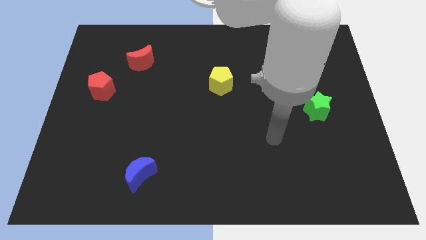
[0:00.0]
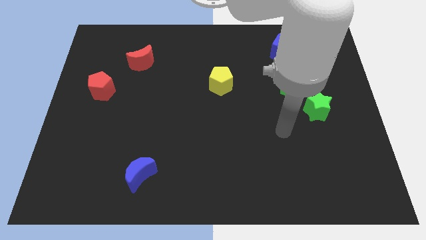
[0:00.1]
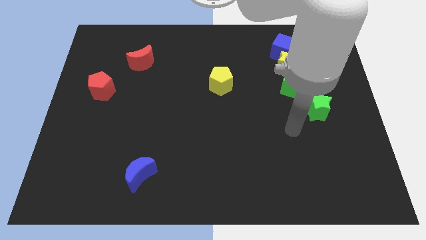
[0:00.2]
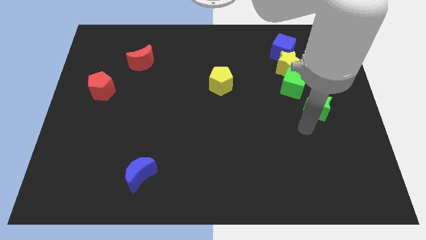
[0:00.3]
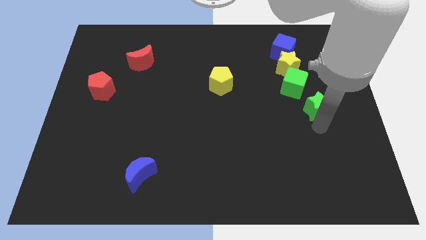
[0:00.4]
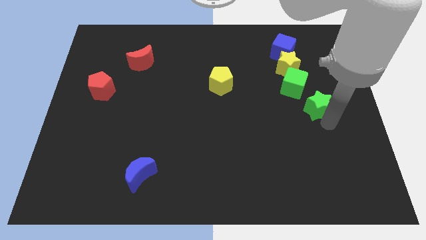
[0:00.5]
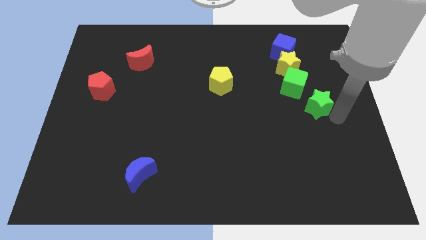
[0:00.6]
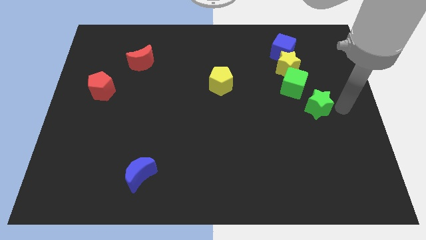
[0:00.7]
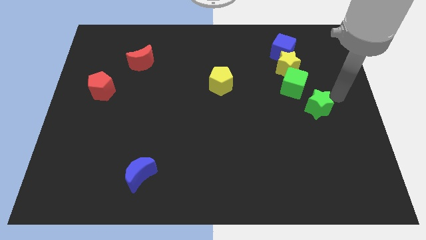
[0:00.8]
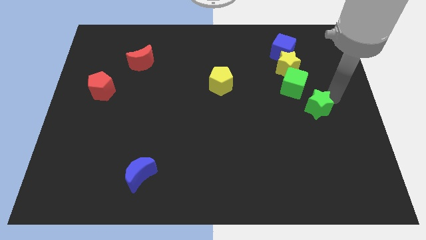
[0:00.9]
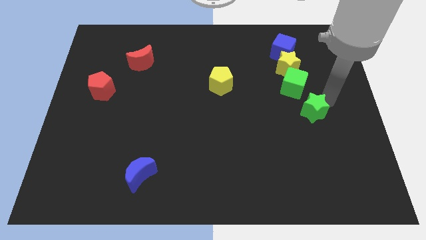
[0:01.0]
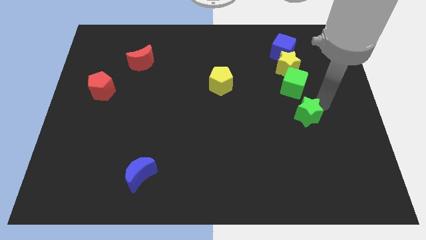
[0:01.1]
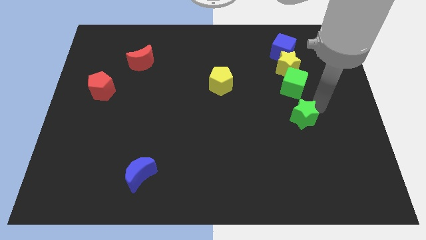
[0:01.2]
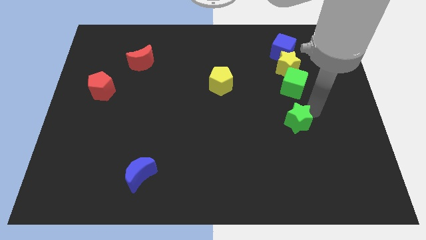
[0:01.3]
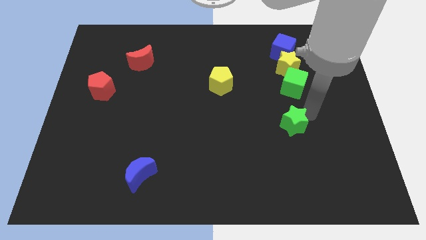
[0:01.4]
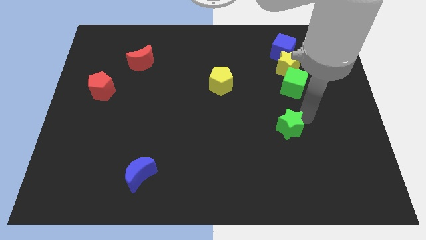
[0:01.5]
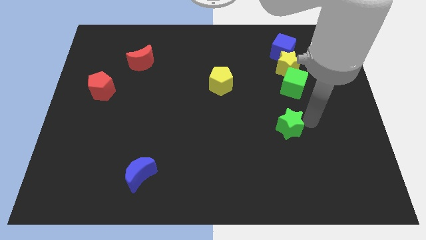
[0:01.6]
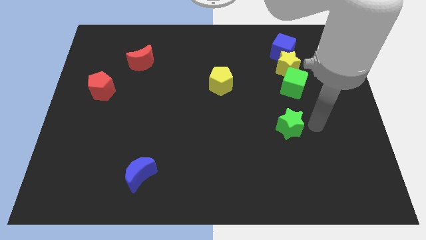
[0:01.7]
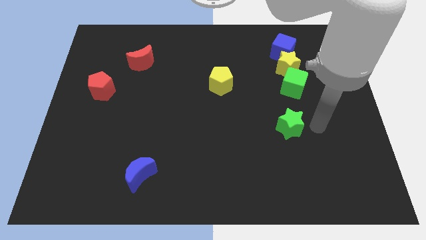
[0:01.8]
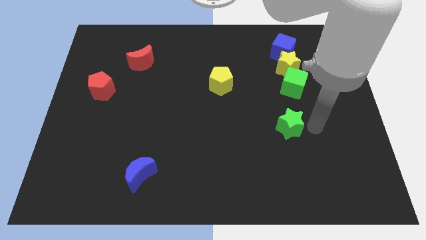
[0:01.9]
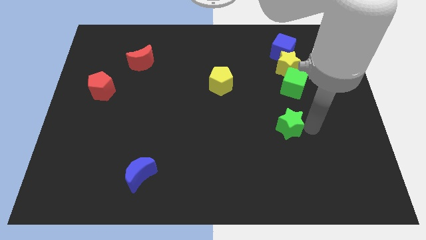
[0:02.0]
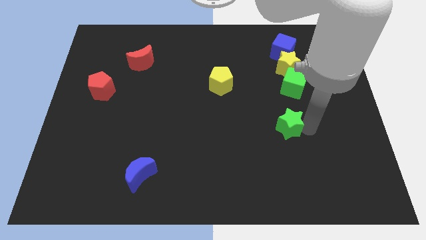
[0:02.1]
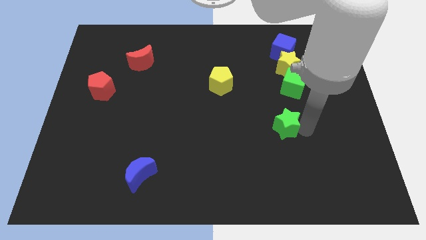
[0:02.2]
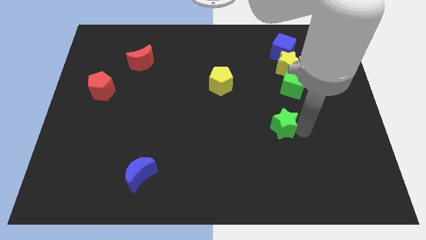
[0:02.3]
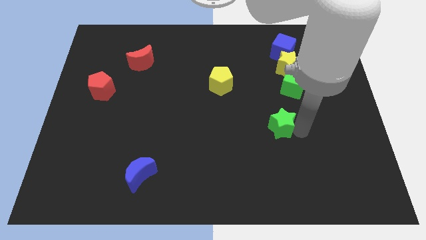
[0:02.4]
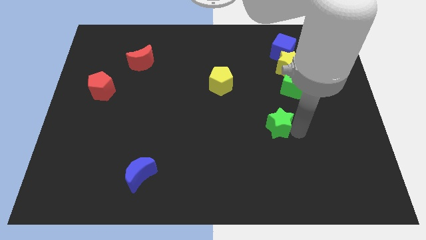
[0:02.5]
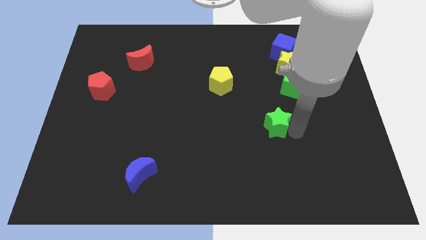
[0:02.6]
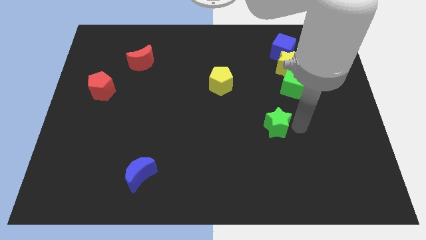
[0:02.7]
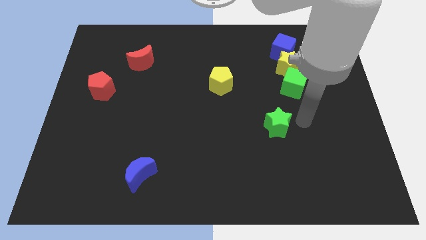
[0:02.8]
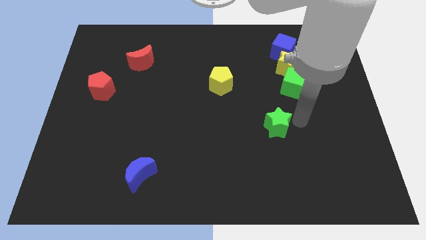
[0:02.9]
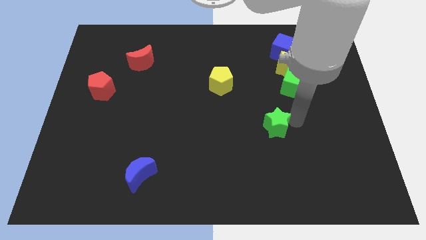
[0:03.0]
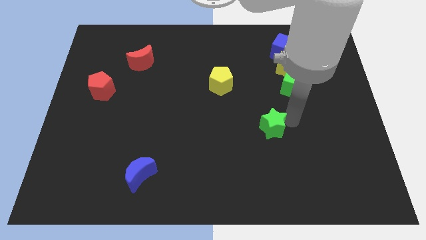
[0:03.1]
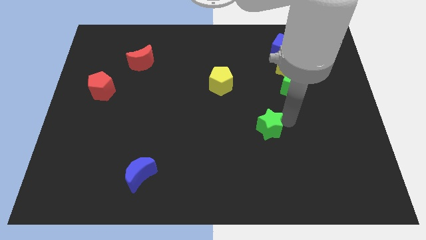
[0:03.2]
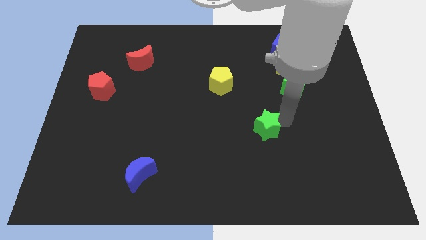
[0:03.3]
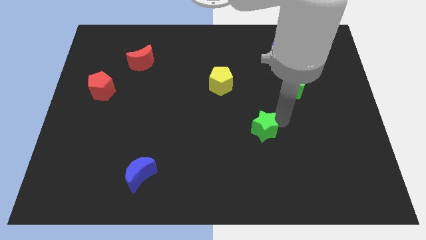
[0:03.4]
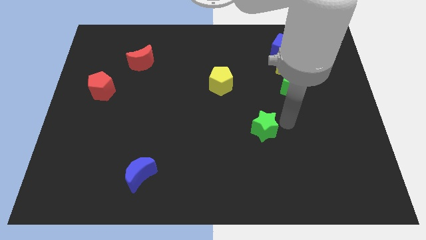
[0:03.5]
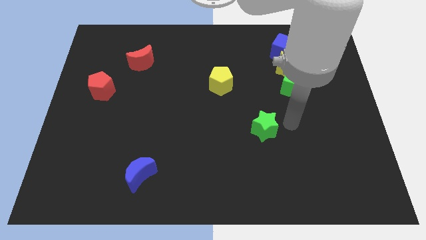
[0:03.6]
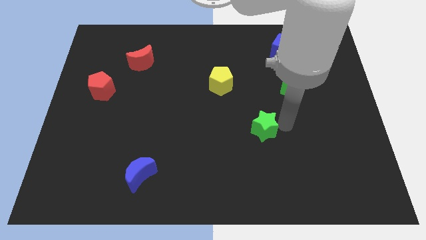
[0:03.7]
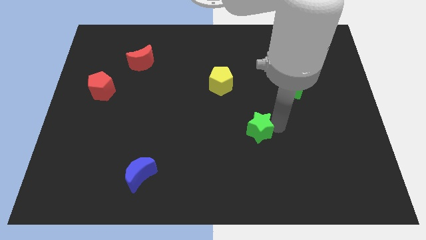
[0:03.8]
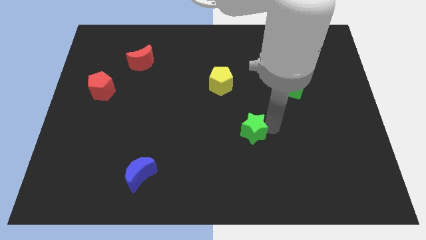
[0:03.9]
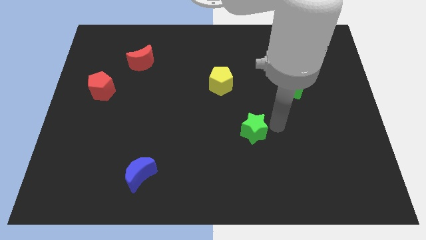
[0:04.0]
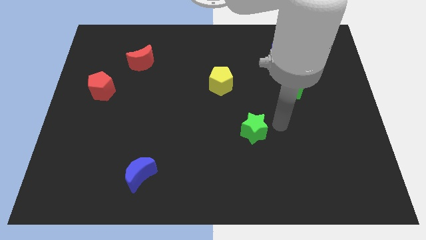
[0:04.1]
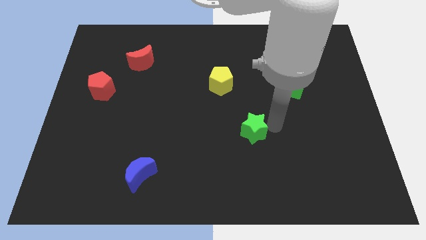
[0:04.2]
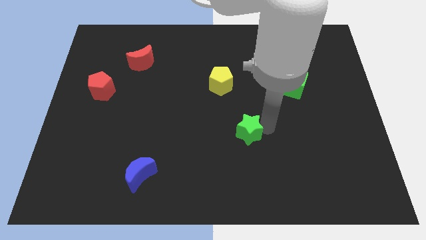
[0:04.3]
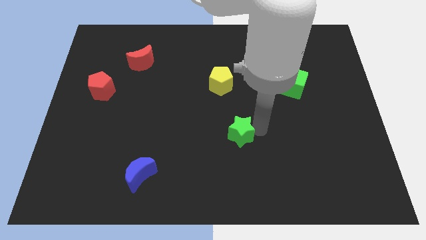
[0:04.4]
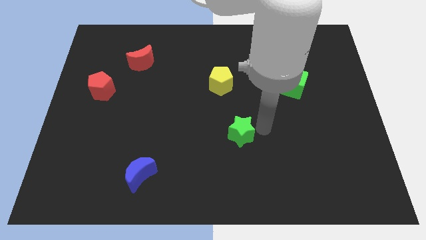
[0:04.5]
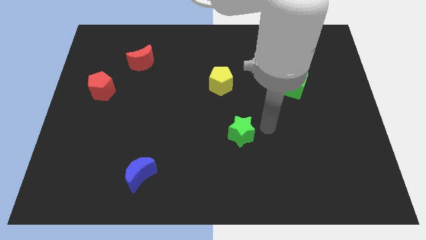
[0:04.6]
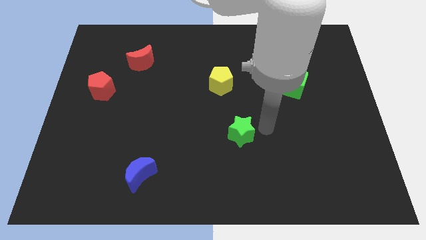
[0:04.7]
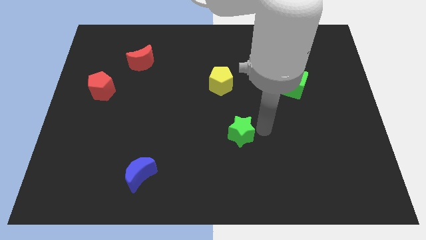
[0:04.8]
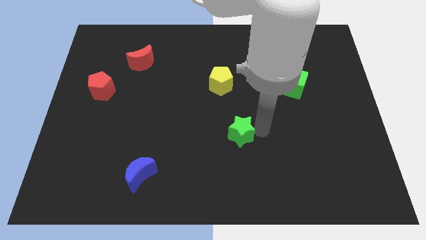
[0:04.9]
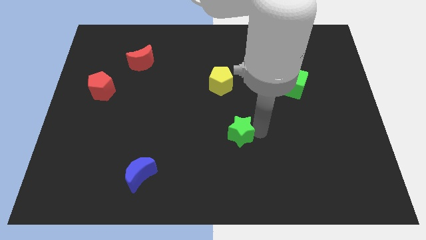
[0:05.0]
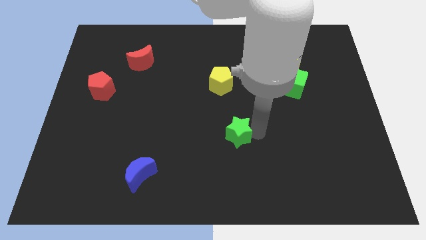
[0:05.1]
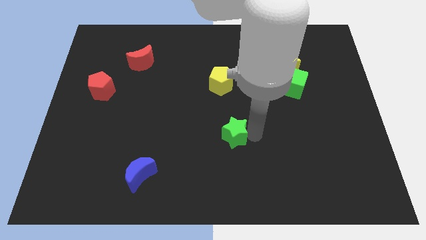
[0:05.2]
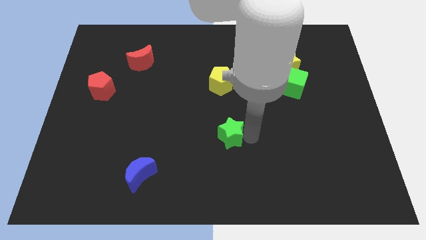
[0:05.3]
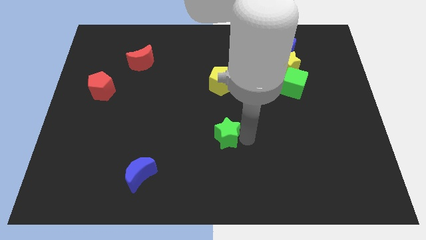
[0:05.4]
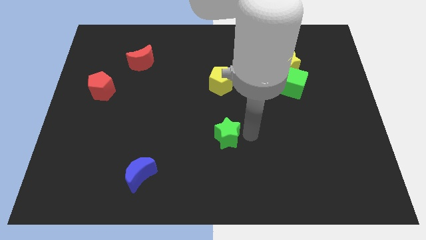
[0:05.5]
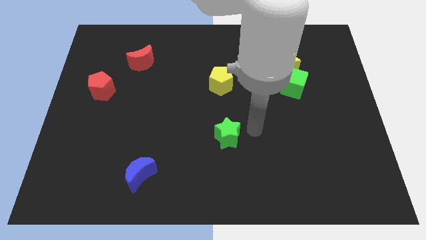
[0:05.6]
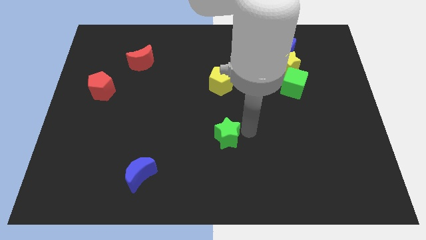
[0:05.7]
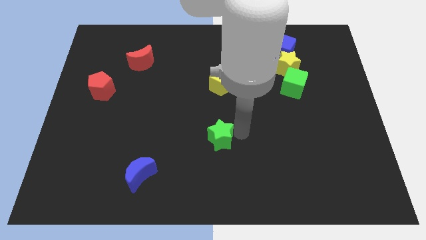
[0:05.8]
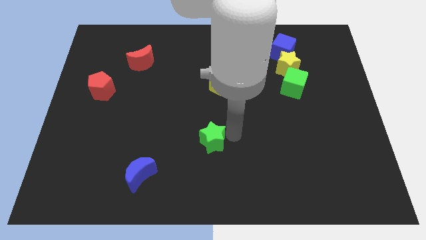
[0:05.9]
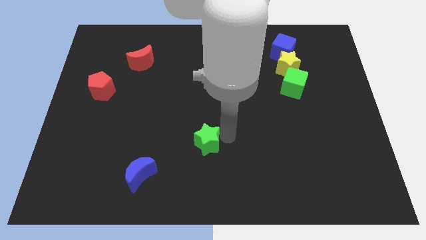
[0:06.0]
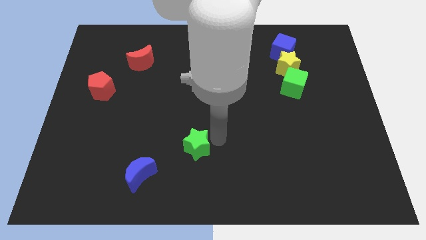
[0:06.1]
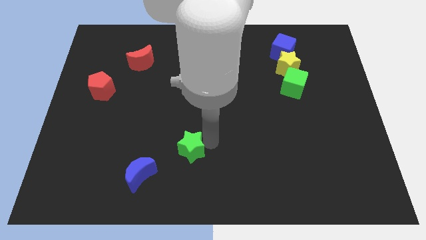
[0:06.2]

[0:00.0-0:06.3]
slide the green star to the top right side of the blue moon
